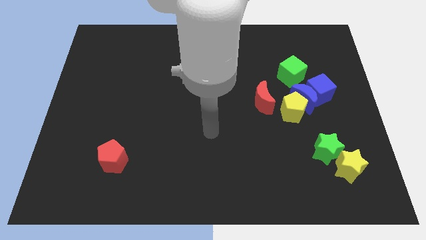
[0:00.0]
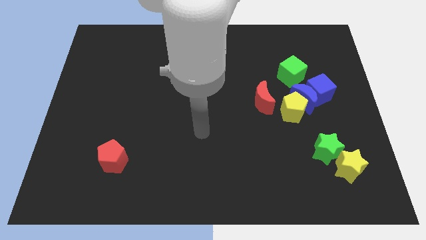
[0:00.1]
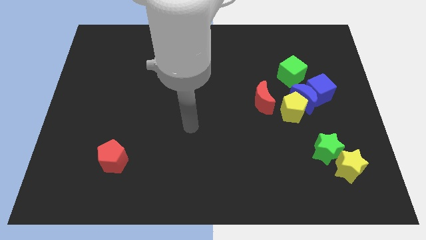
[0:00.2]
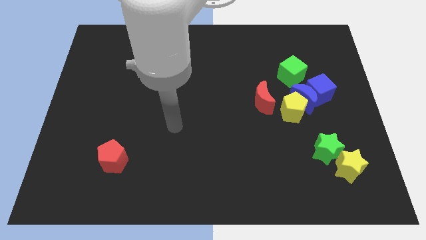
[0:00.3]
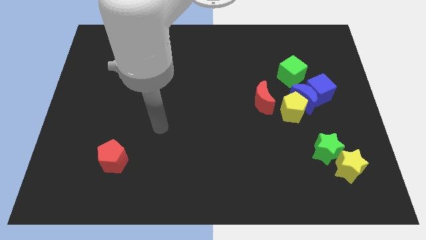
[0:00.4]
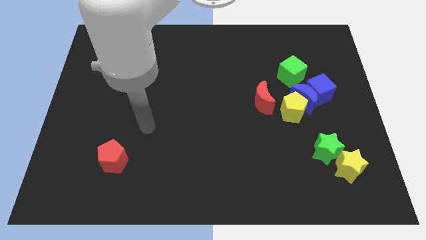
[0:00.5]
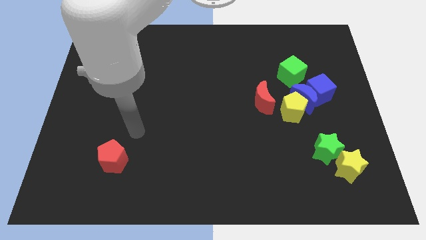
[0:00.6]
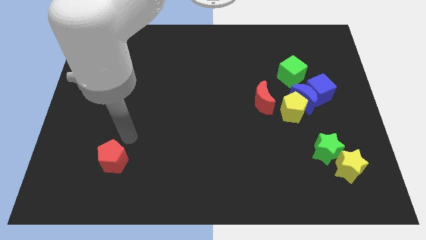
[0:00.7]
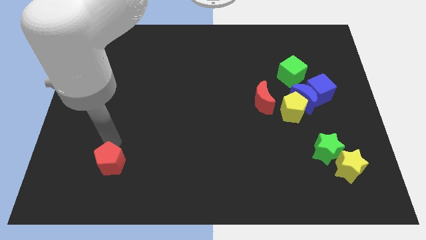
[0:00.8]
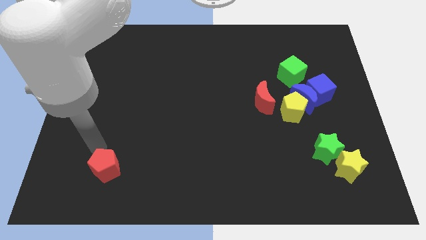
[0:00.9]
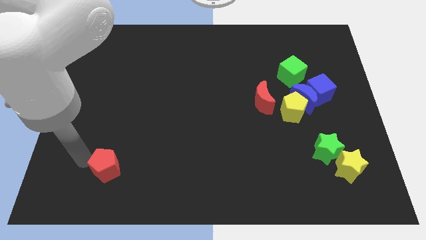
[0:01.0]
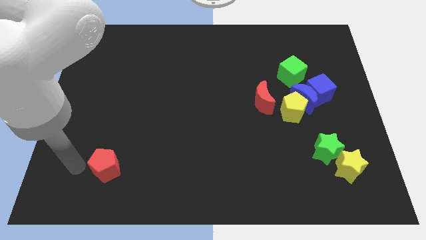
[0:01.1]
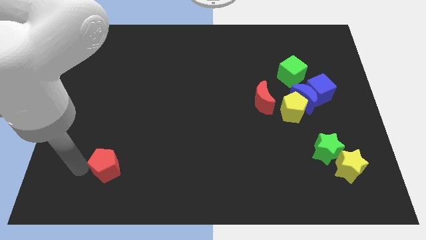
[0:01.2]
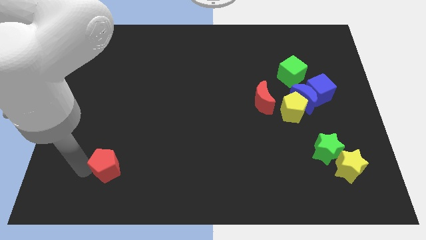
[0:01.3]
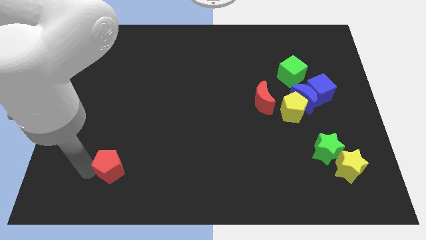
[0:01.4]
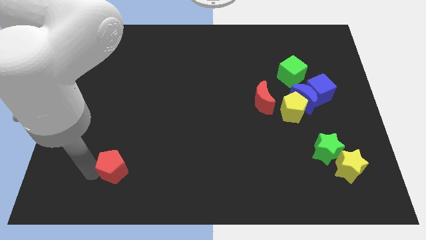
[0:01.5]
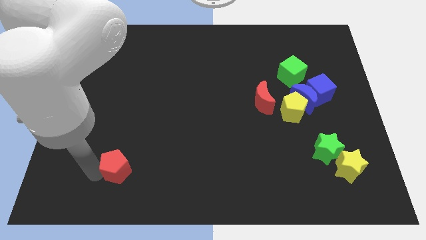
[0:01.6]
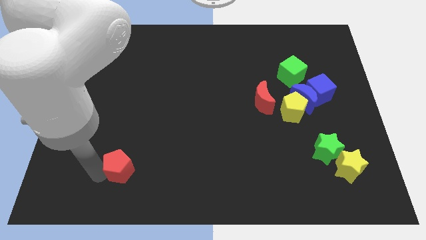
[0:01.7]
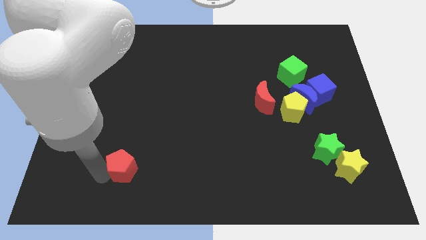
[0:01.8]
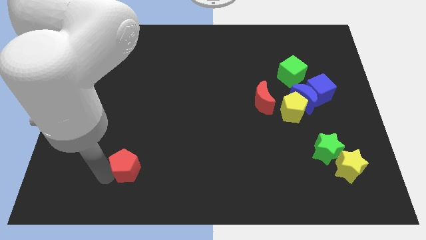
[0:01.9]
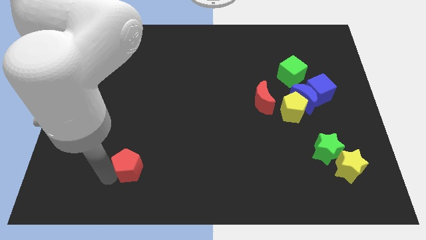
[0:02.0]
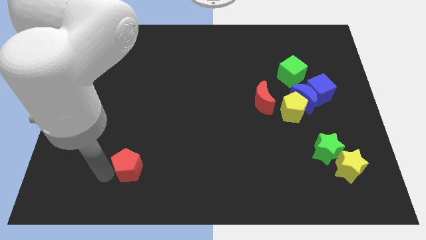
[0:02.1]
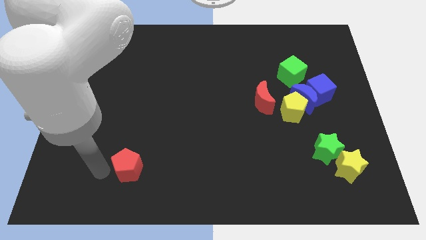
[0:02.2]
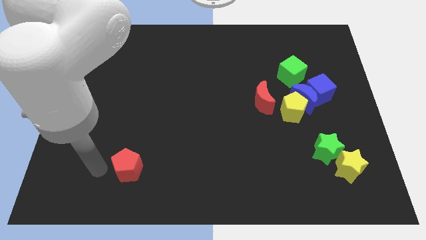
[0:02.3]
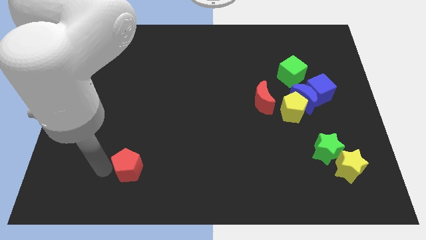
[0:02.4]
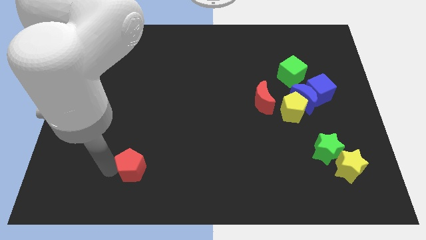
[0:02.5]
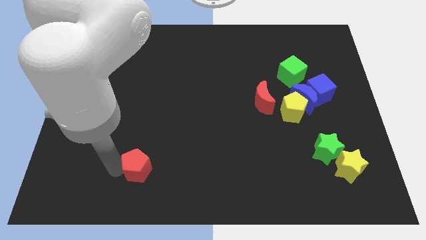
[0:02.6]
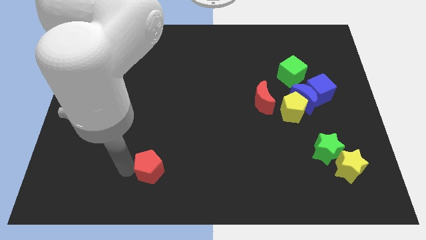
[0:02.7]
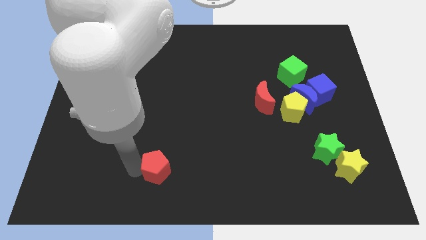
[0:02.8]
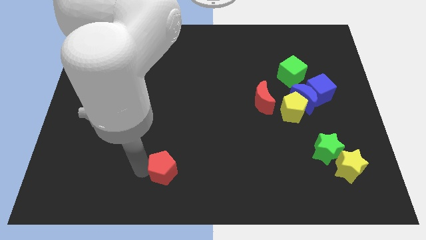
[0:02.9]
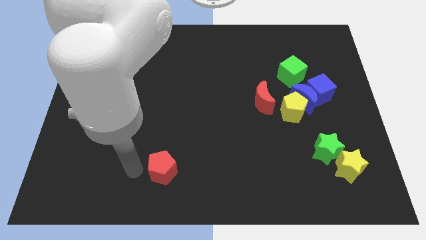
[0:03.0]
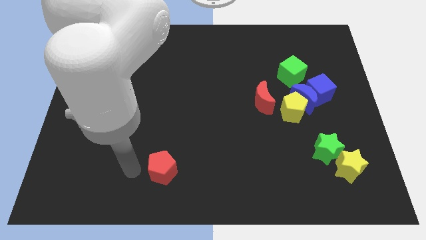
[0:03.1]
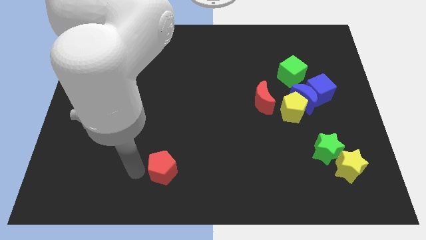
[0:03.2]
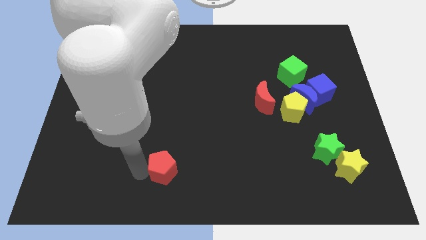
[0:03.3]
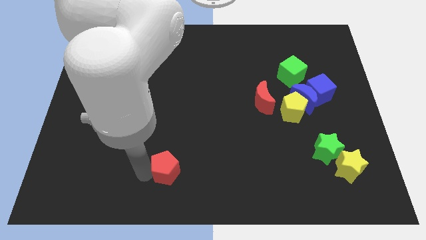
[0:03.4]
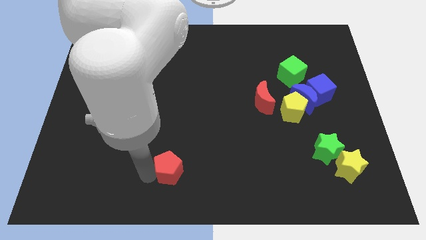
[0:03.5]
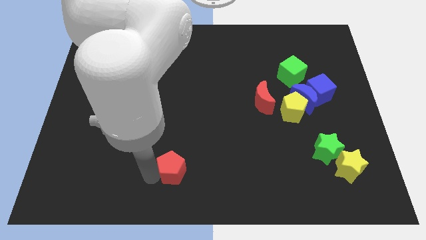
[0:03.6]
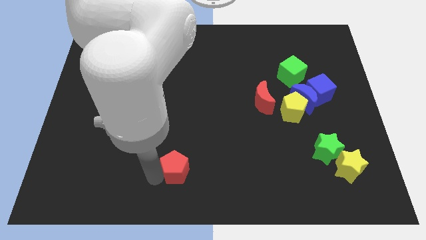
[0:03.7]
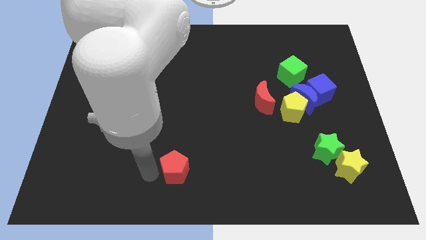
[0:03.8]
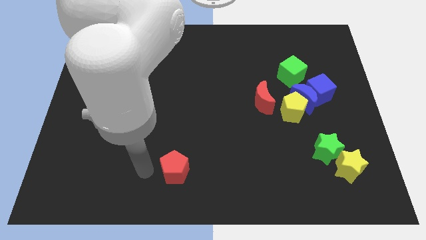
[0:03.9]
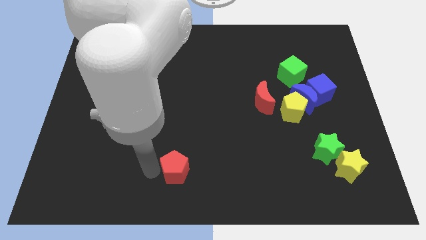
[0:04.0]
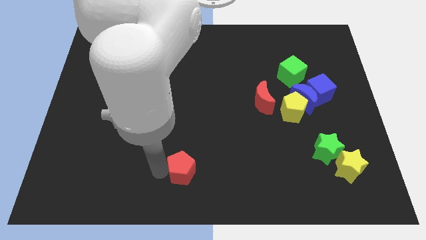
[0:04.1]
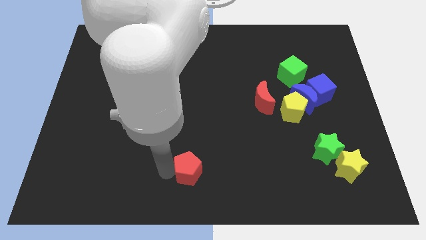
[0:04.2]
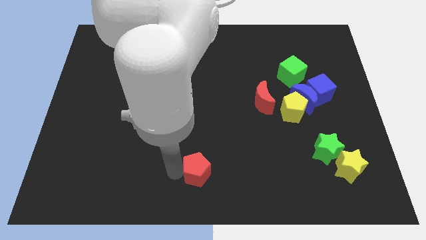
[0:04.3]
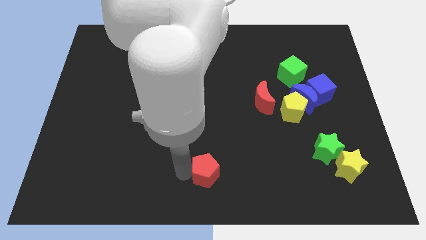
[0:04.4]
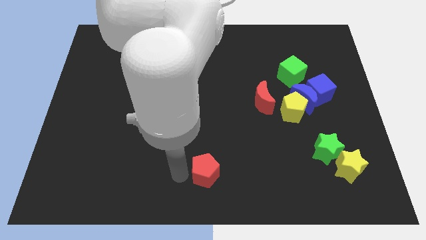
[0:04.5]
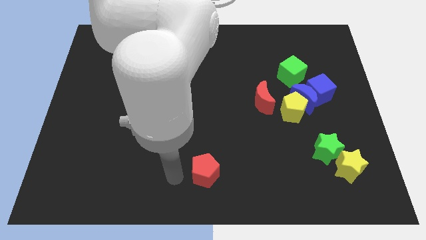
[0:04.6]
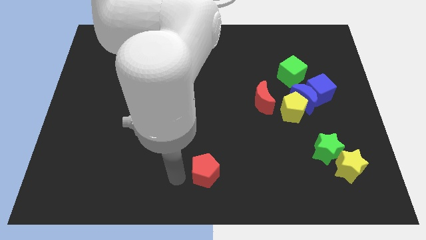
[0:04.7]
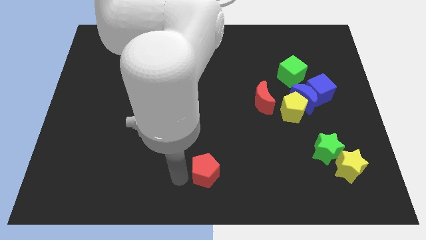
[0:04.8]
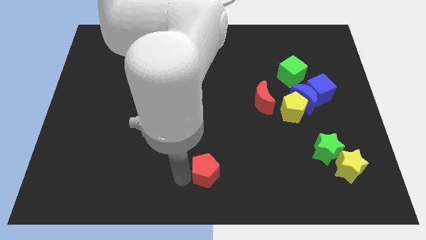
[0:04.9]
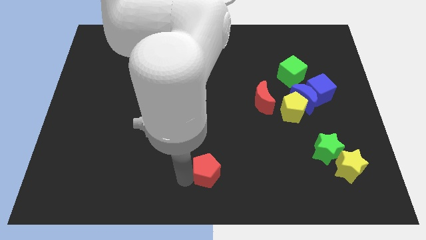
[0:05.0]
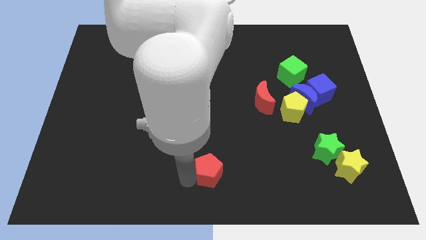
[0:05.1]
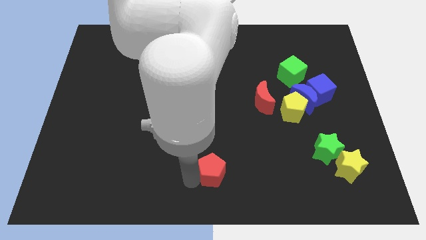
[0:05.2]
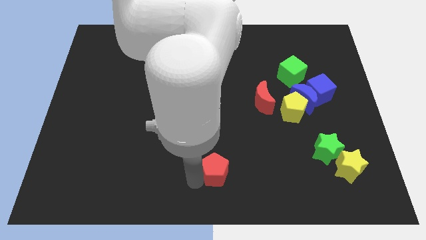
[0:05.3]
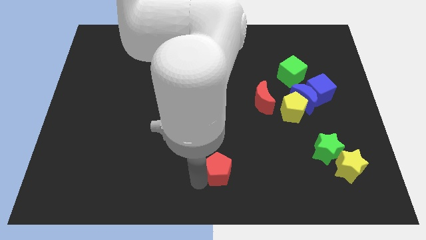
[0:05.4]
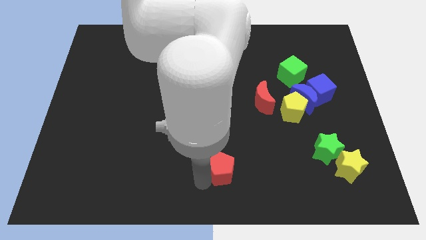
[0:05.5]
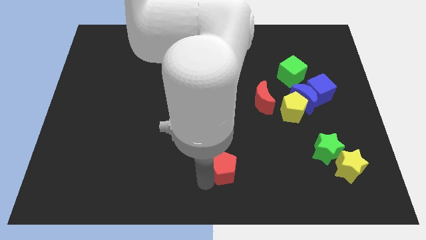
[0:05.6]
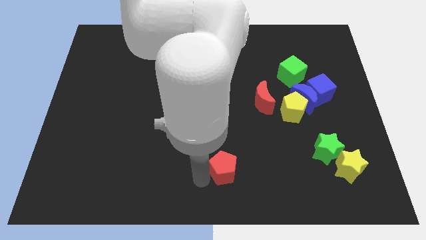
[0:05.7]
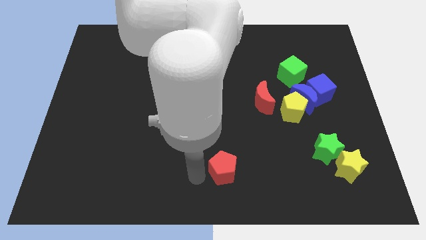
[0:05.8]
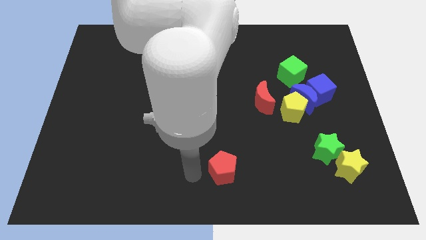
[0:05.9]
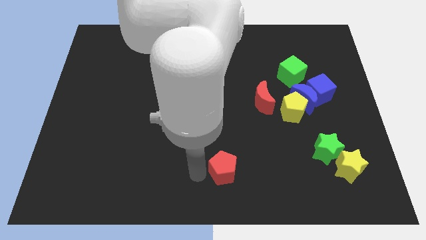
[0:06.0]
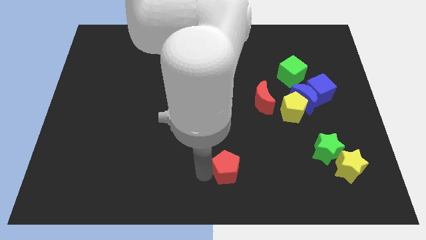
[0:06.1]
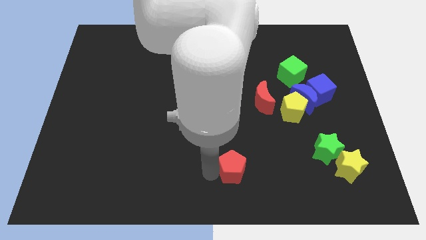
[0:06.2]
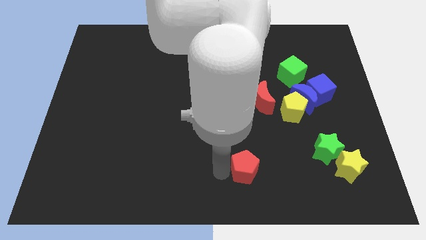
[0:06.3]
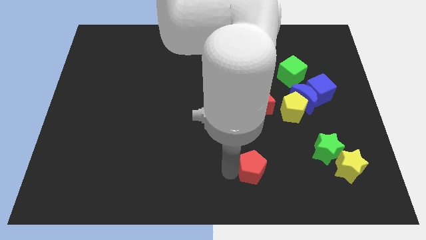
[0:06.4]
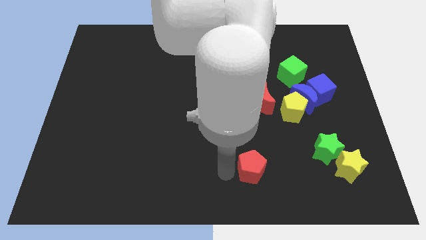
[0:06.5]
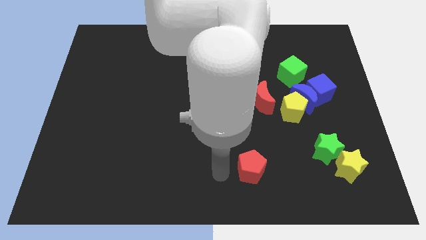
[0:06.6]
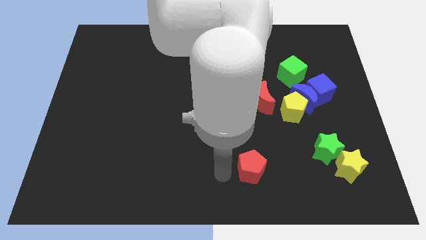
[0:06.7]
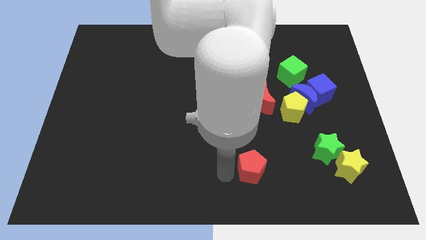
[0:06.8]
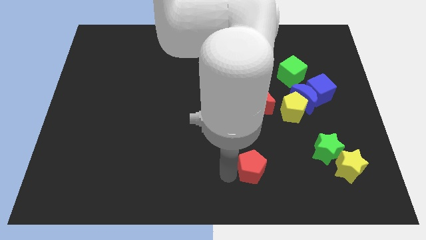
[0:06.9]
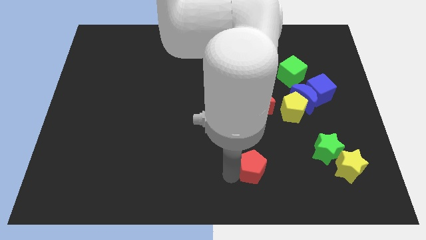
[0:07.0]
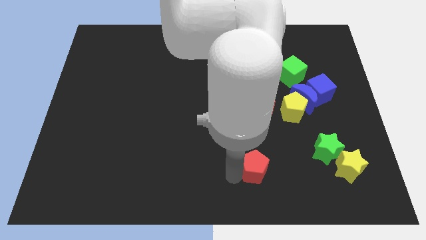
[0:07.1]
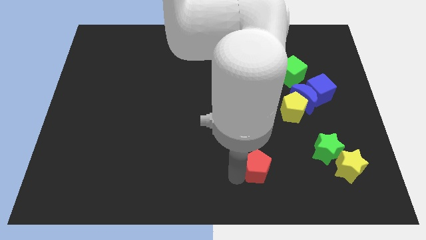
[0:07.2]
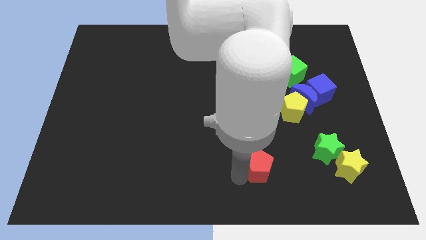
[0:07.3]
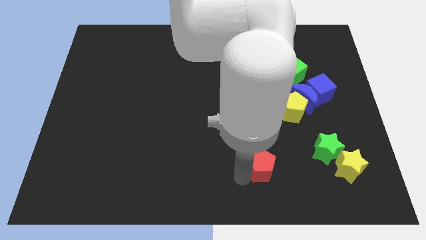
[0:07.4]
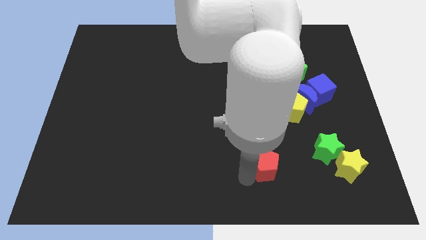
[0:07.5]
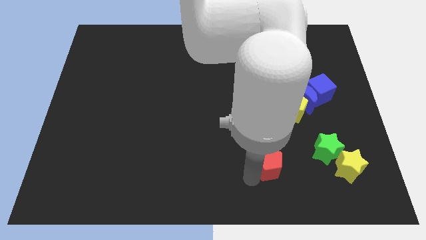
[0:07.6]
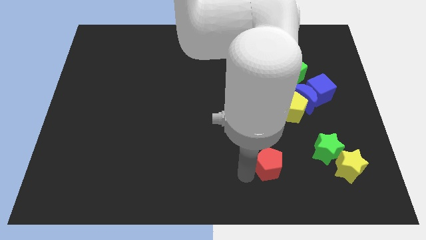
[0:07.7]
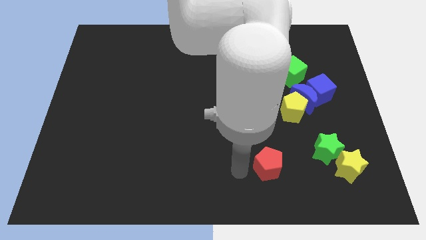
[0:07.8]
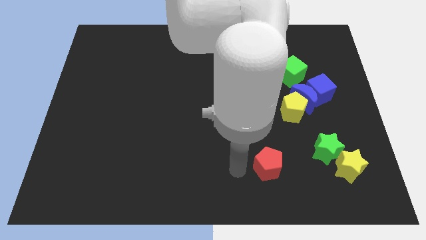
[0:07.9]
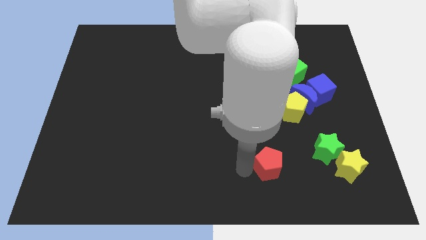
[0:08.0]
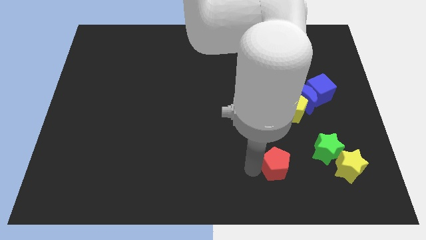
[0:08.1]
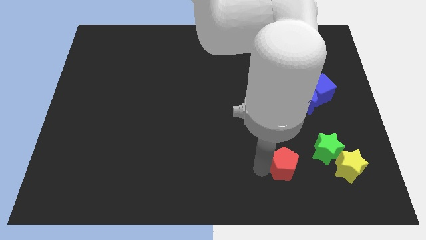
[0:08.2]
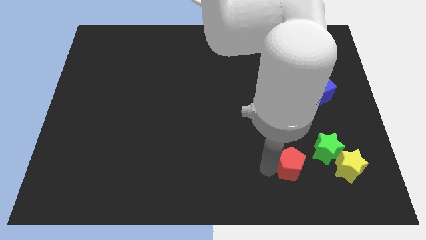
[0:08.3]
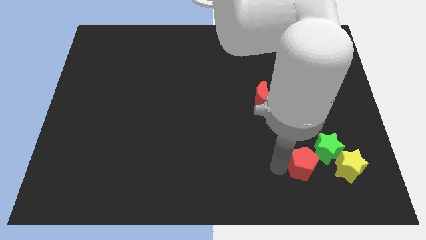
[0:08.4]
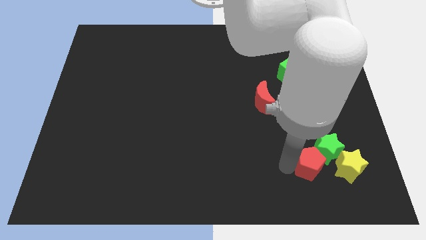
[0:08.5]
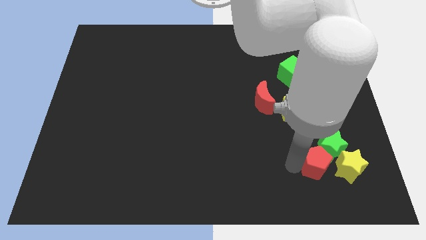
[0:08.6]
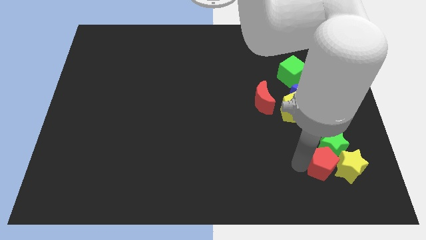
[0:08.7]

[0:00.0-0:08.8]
slide the red pentagon close to the yellow star
